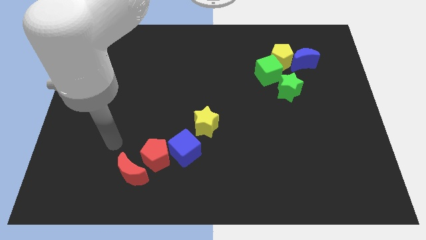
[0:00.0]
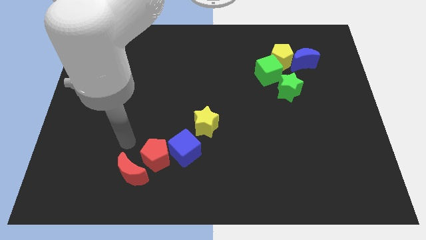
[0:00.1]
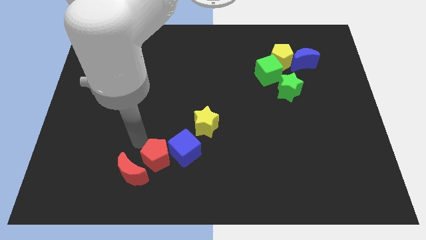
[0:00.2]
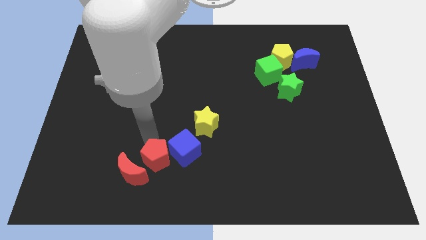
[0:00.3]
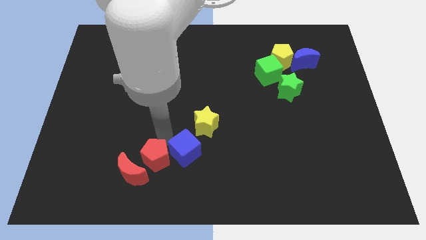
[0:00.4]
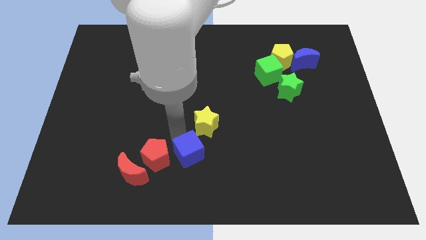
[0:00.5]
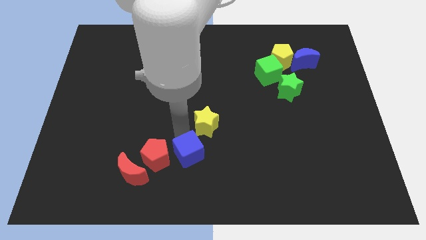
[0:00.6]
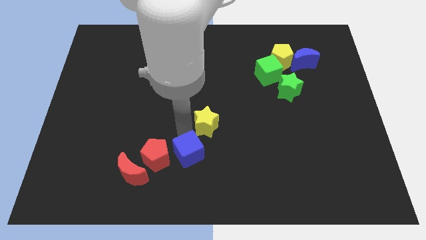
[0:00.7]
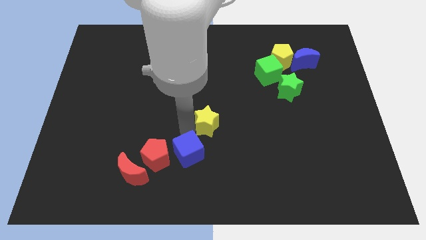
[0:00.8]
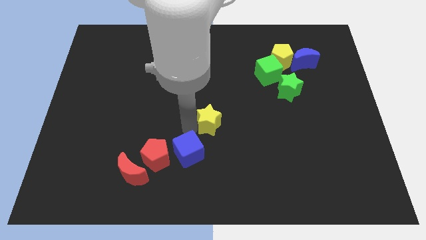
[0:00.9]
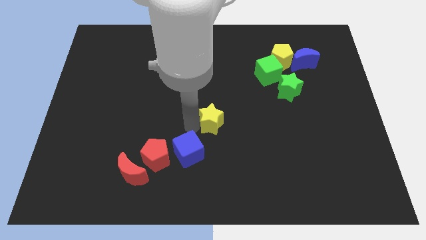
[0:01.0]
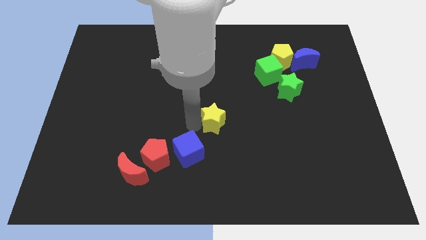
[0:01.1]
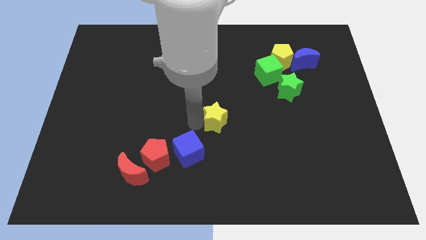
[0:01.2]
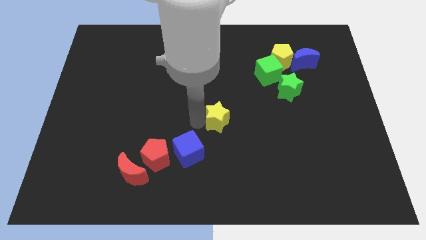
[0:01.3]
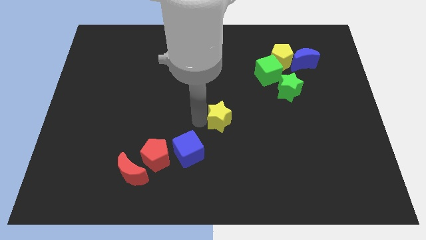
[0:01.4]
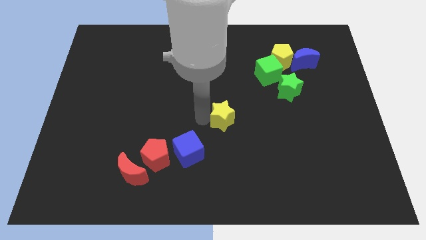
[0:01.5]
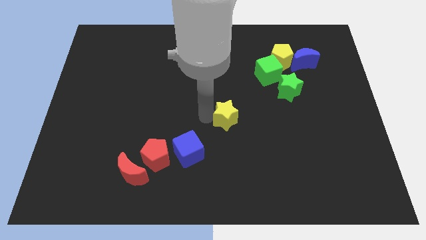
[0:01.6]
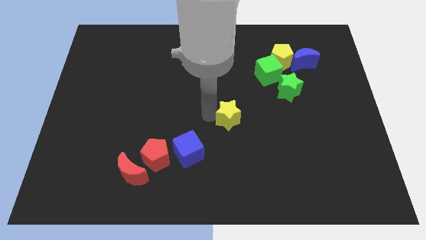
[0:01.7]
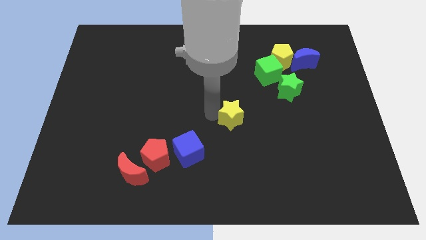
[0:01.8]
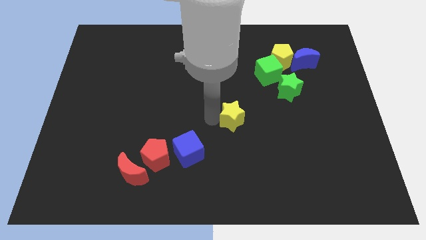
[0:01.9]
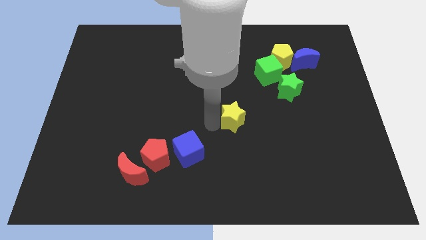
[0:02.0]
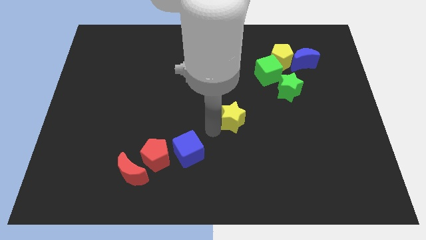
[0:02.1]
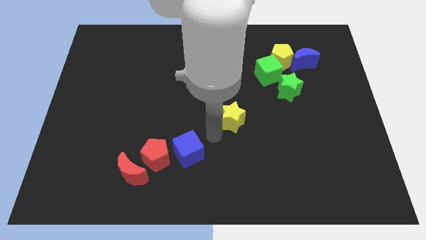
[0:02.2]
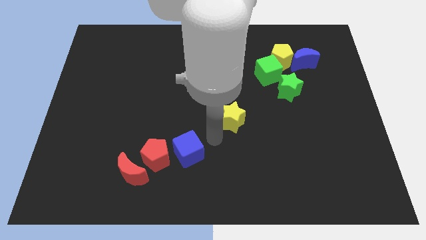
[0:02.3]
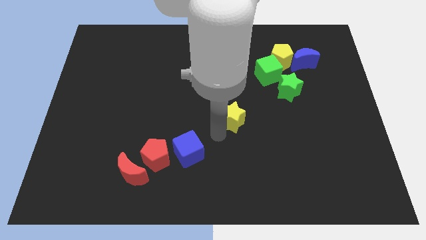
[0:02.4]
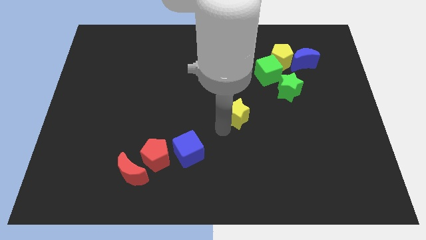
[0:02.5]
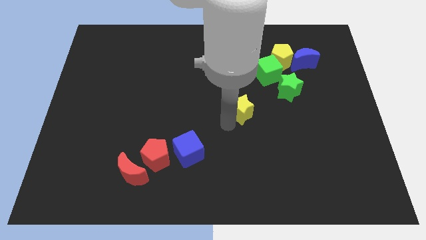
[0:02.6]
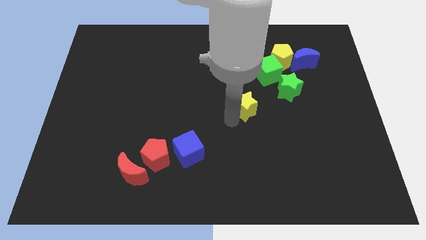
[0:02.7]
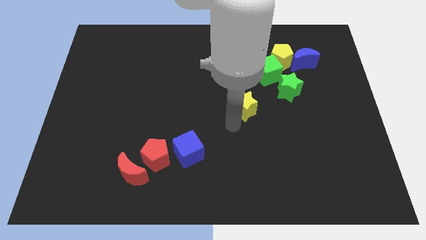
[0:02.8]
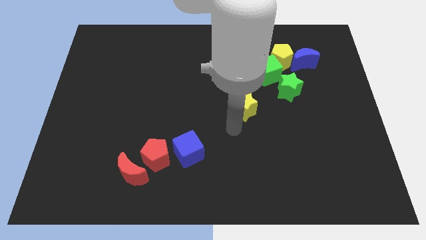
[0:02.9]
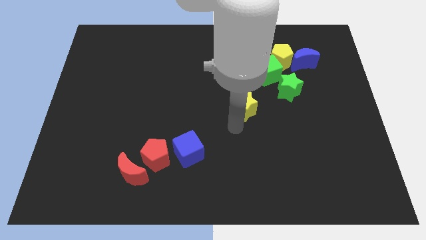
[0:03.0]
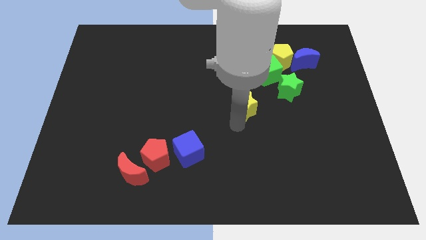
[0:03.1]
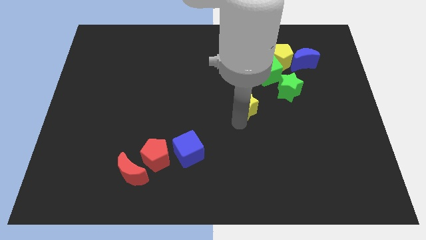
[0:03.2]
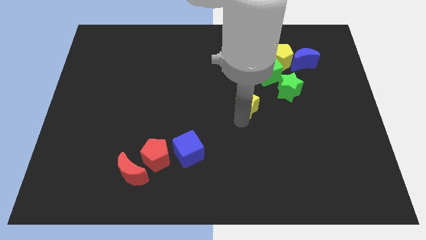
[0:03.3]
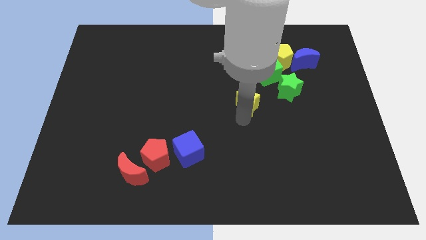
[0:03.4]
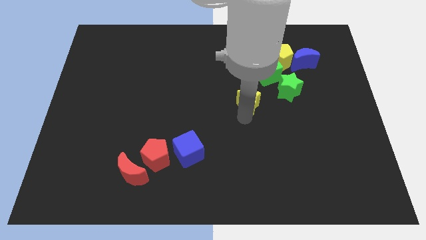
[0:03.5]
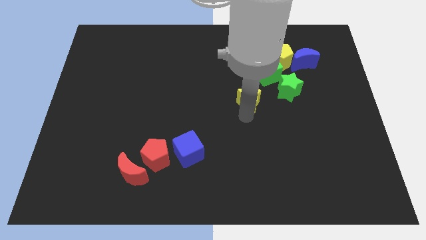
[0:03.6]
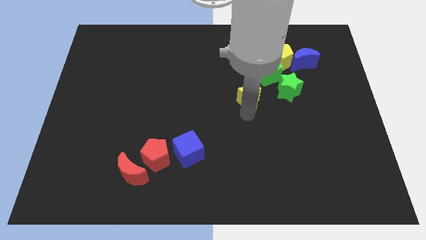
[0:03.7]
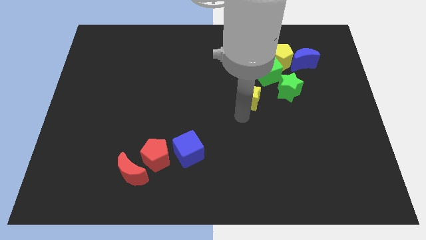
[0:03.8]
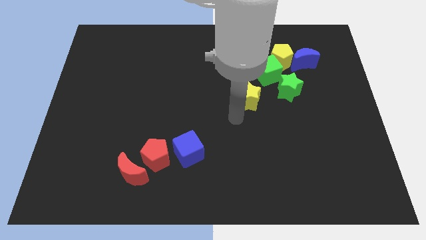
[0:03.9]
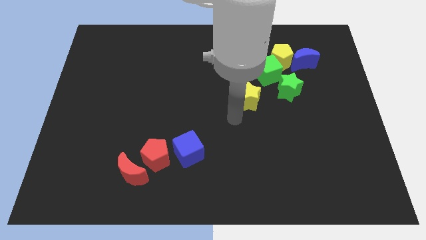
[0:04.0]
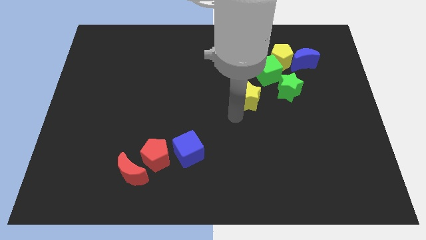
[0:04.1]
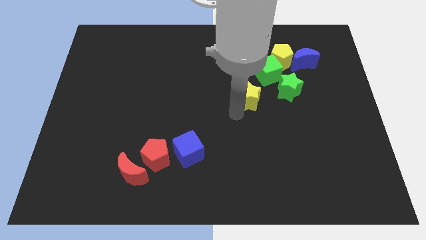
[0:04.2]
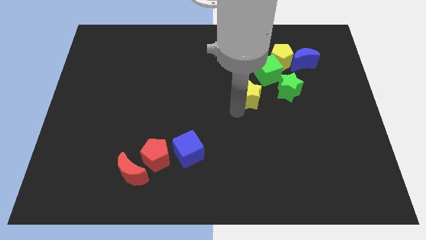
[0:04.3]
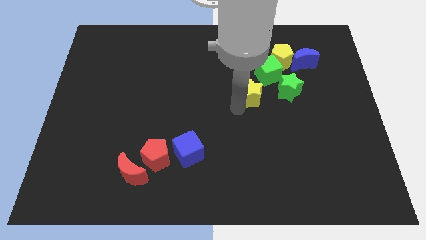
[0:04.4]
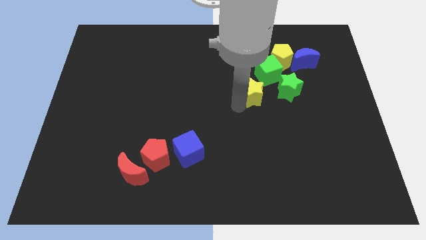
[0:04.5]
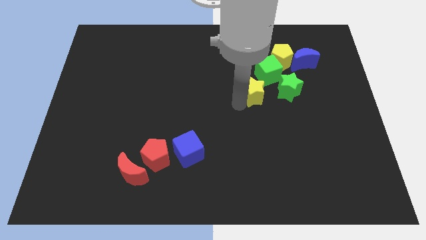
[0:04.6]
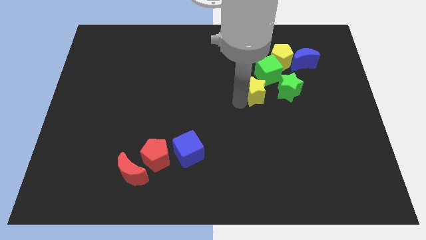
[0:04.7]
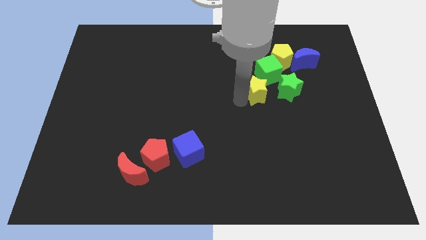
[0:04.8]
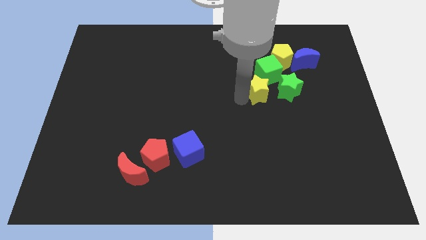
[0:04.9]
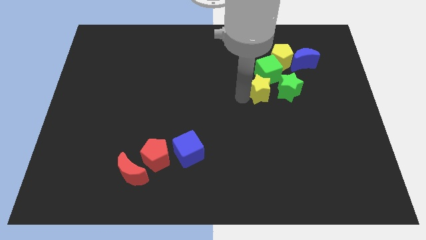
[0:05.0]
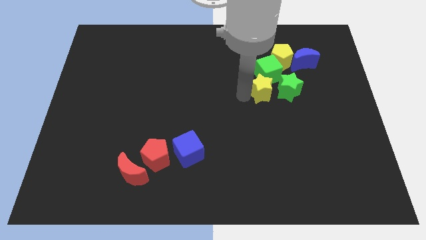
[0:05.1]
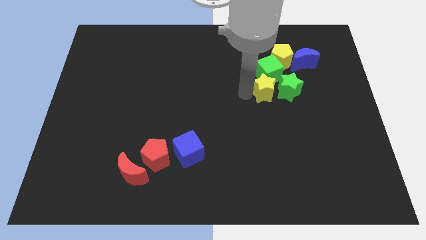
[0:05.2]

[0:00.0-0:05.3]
put the yellow star next to the green cube

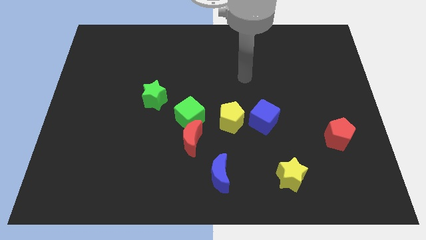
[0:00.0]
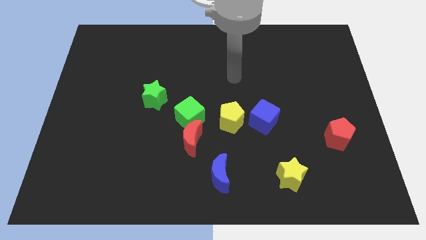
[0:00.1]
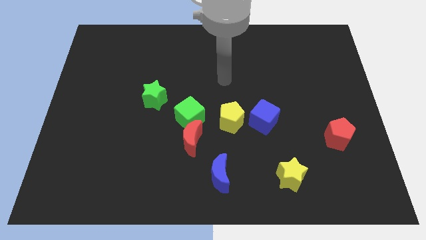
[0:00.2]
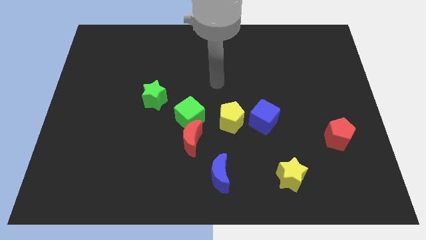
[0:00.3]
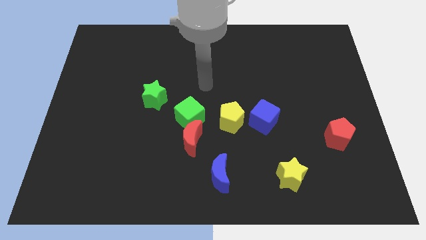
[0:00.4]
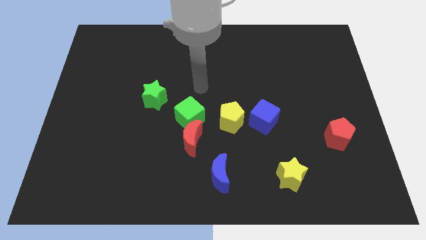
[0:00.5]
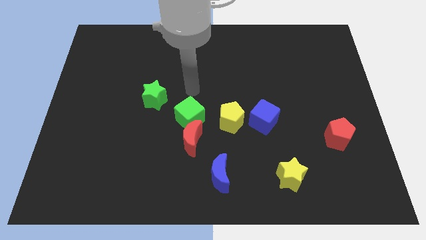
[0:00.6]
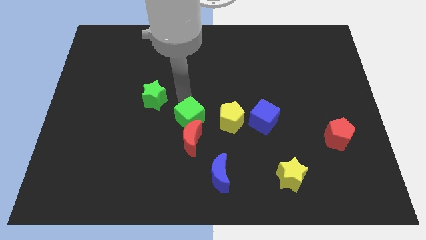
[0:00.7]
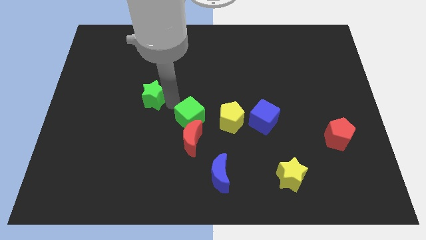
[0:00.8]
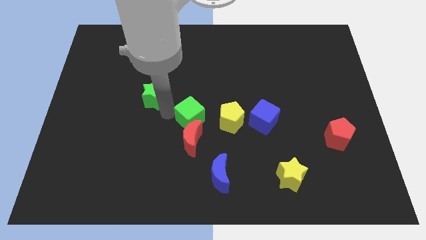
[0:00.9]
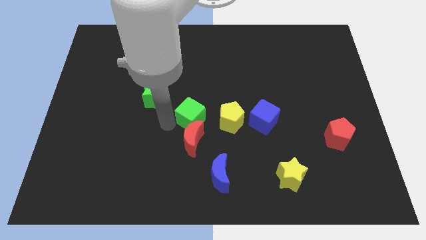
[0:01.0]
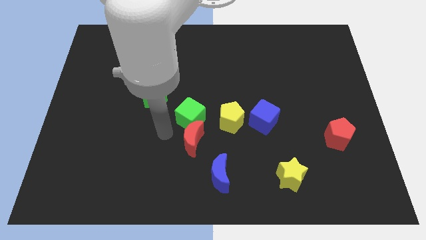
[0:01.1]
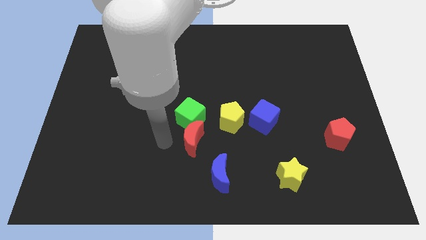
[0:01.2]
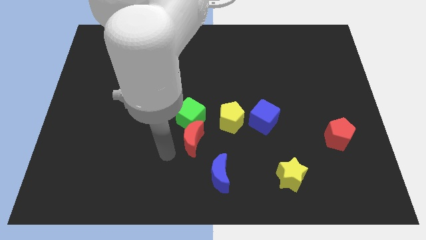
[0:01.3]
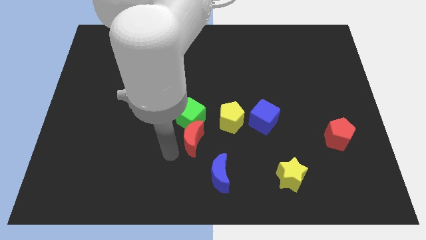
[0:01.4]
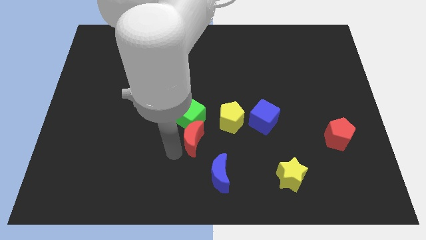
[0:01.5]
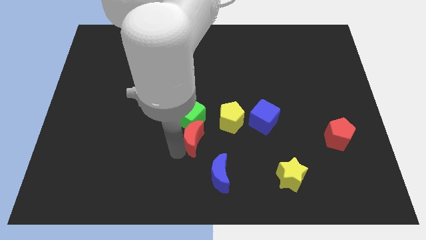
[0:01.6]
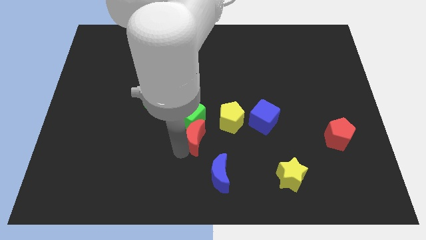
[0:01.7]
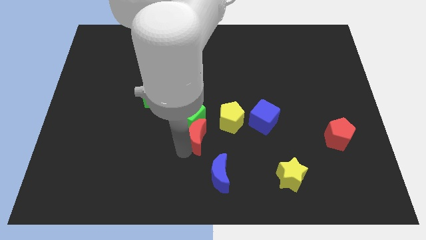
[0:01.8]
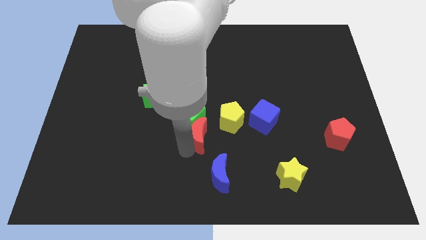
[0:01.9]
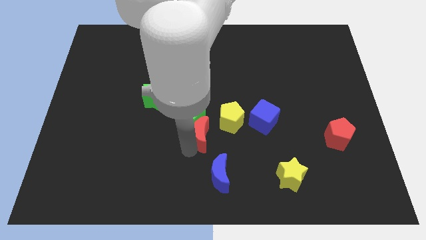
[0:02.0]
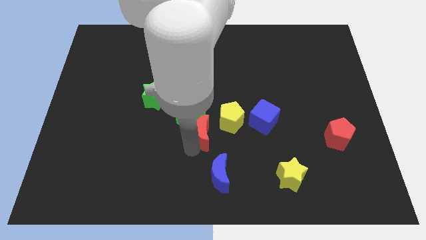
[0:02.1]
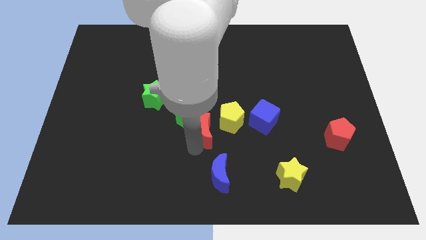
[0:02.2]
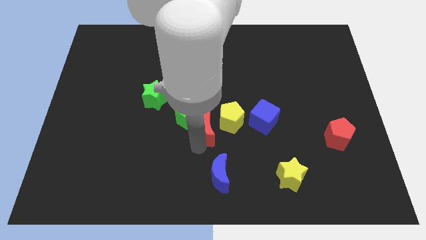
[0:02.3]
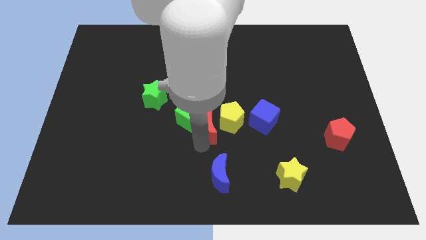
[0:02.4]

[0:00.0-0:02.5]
slide the red moon close to the yellow pentagon
